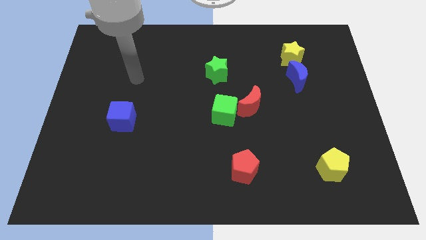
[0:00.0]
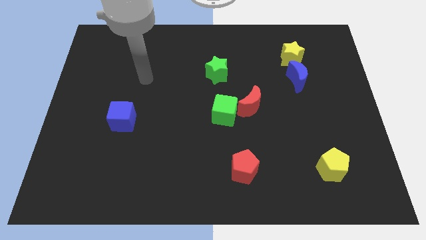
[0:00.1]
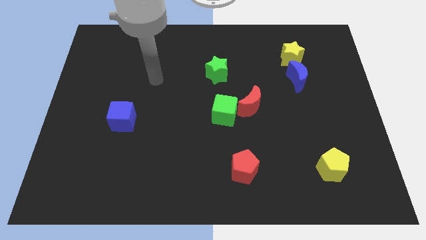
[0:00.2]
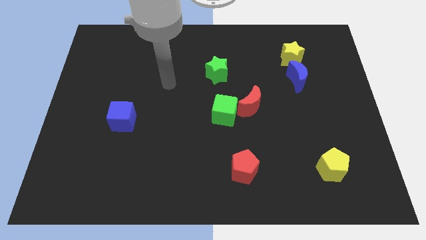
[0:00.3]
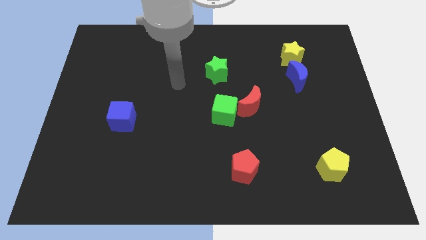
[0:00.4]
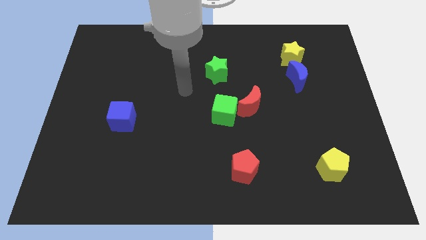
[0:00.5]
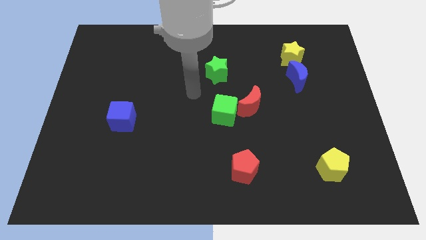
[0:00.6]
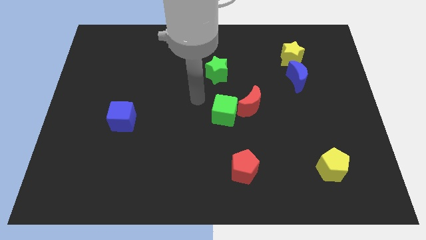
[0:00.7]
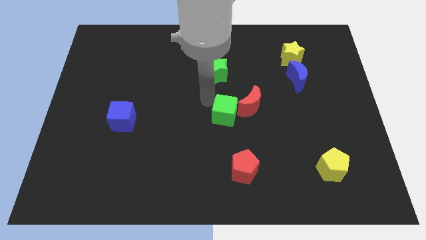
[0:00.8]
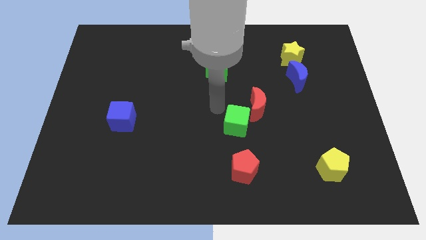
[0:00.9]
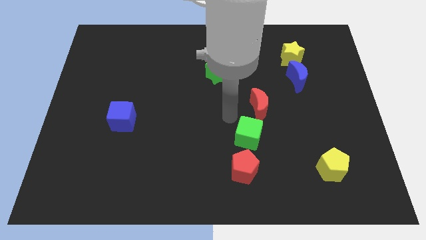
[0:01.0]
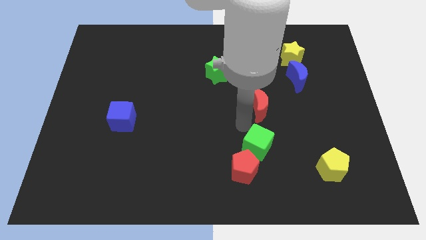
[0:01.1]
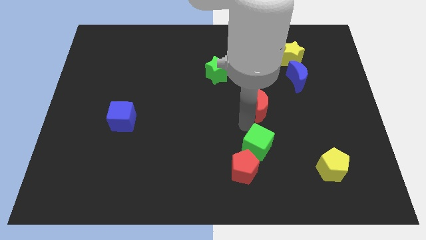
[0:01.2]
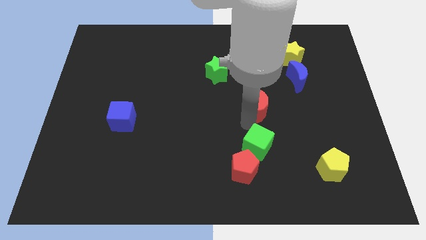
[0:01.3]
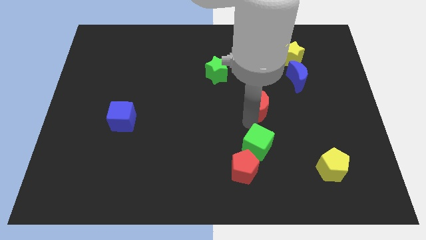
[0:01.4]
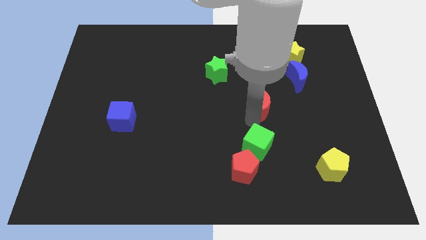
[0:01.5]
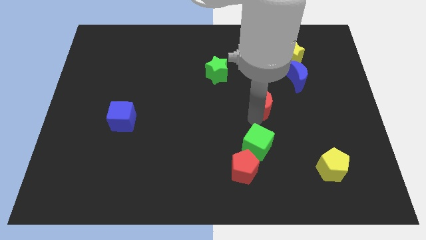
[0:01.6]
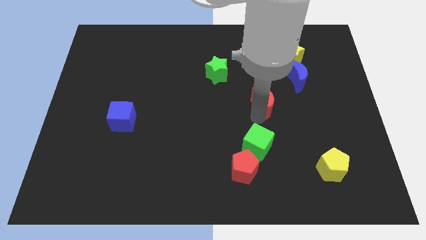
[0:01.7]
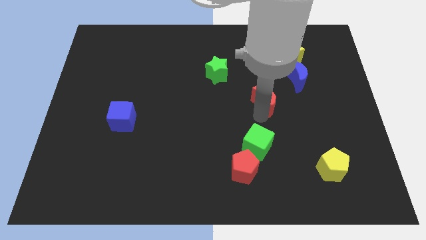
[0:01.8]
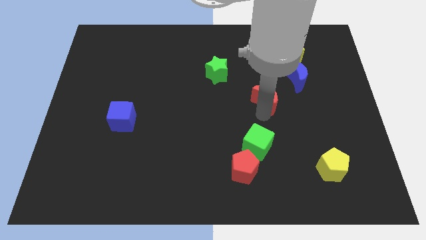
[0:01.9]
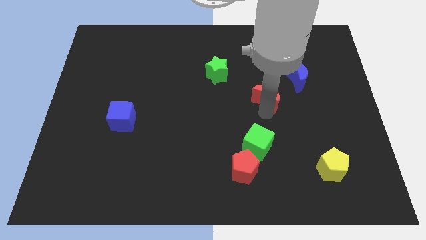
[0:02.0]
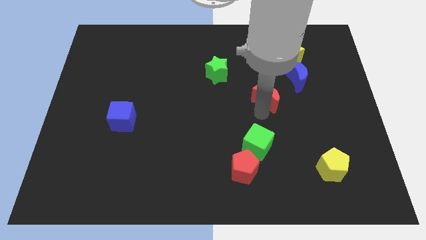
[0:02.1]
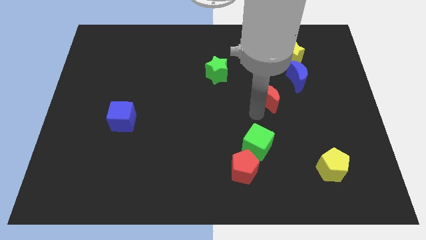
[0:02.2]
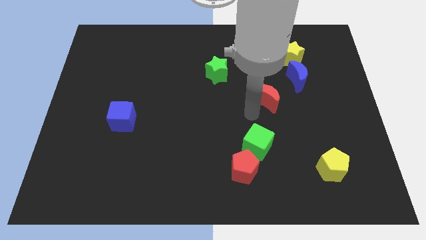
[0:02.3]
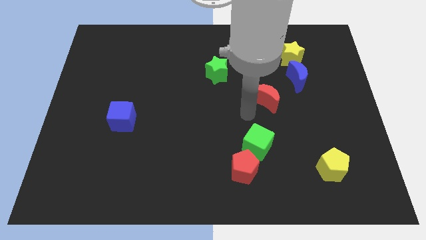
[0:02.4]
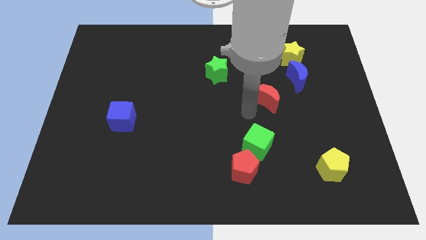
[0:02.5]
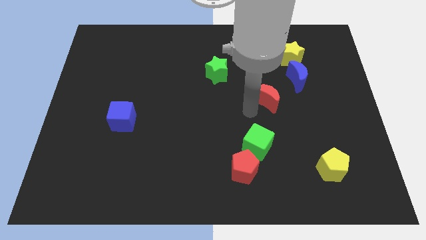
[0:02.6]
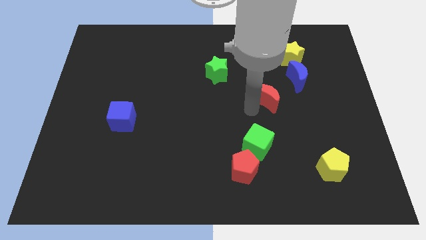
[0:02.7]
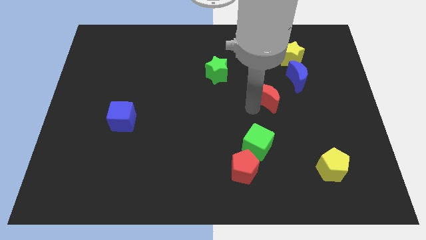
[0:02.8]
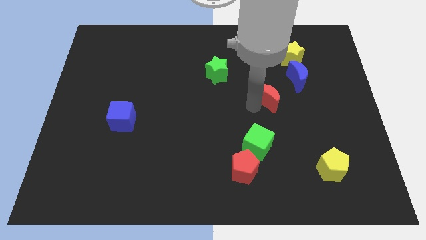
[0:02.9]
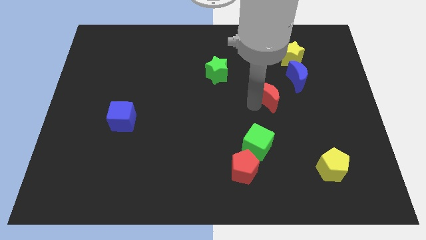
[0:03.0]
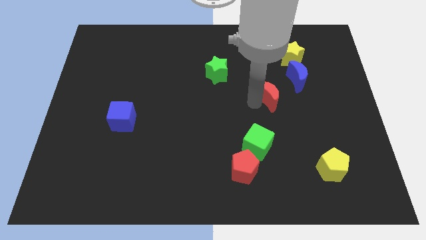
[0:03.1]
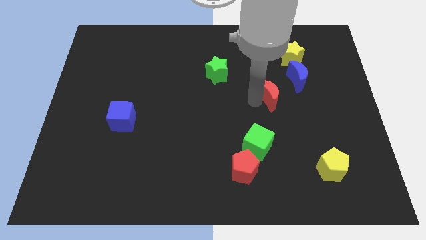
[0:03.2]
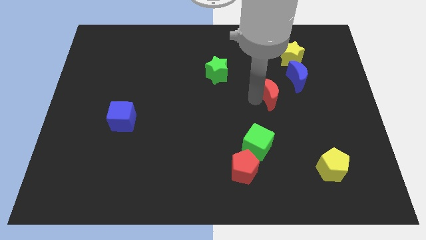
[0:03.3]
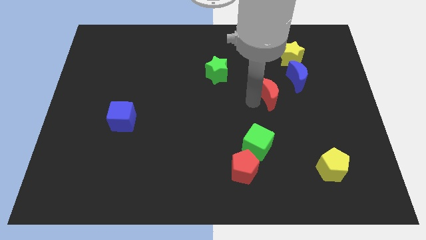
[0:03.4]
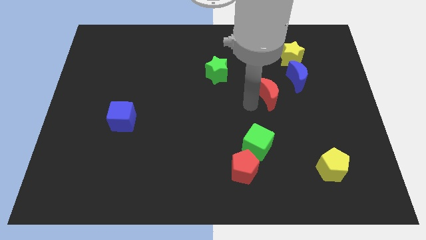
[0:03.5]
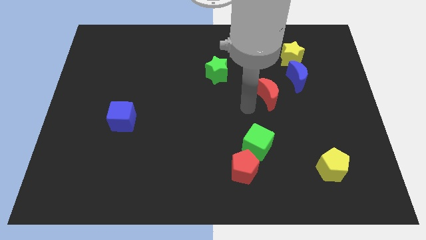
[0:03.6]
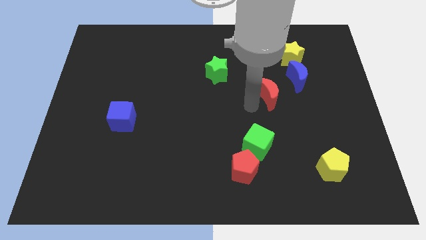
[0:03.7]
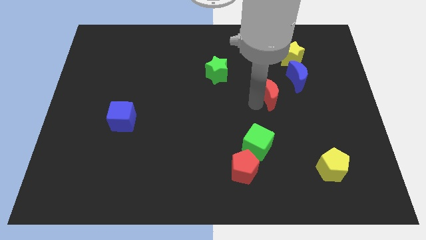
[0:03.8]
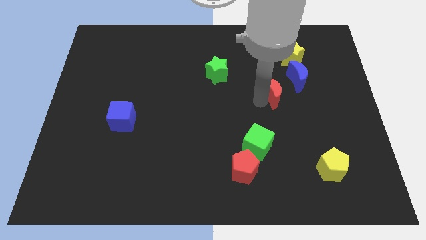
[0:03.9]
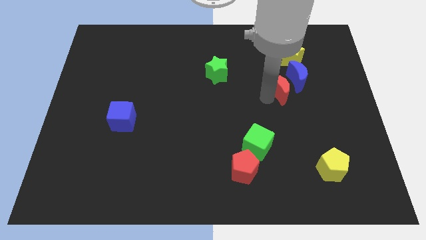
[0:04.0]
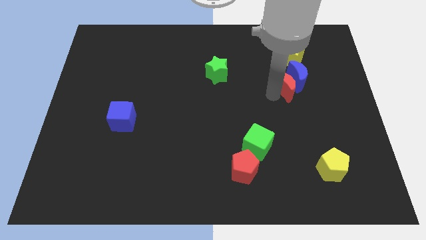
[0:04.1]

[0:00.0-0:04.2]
put the red moon close to the blue moon

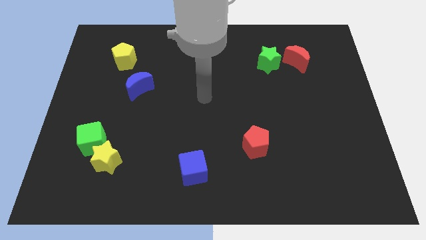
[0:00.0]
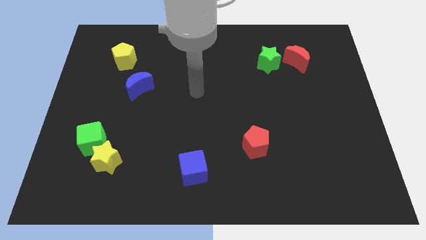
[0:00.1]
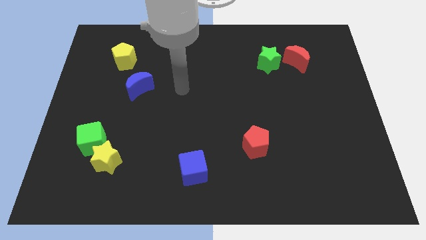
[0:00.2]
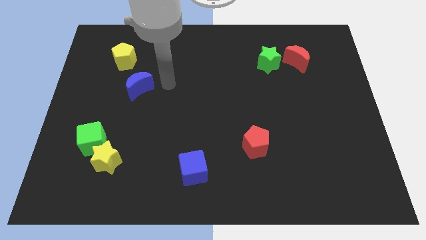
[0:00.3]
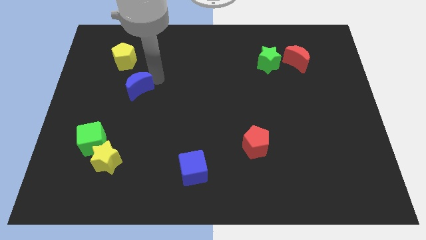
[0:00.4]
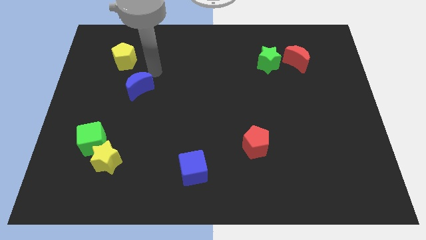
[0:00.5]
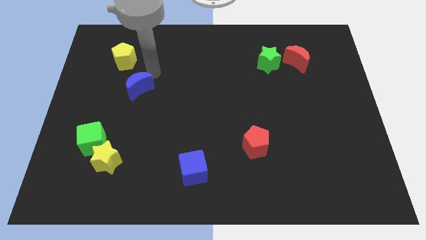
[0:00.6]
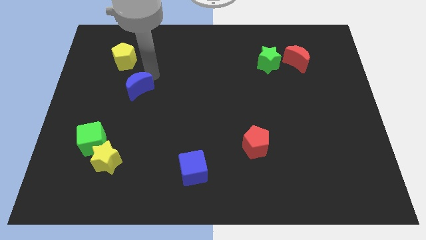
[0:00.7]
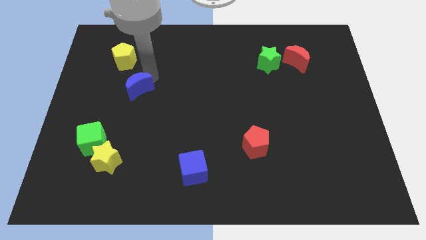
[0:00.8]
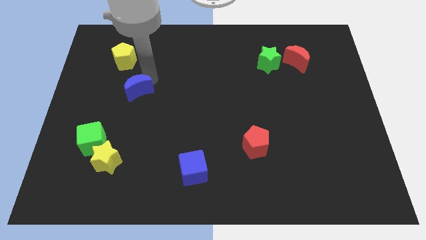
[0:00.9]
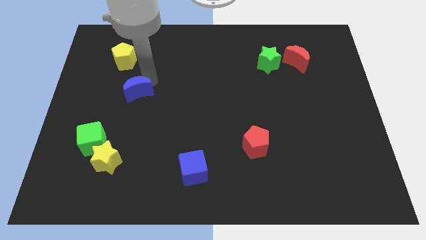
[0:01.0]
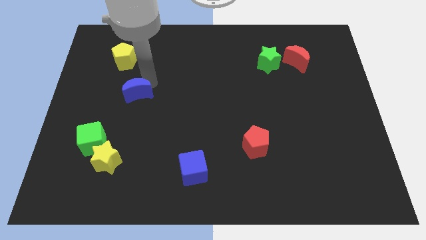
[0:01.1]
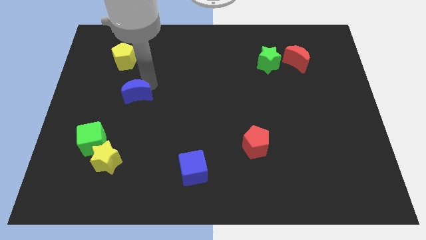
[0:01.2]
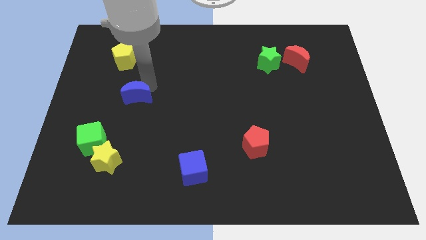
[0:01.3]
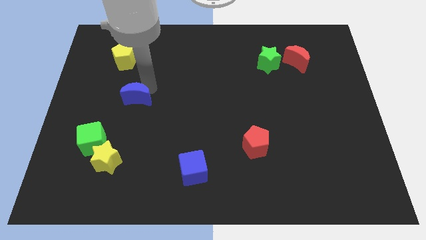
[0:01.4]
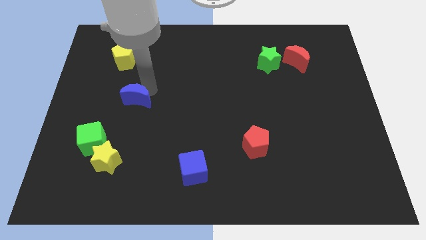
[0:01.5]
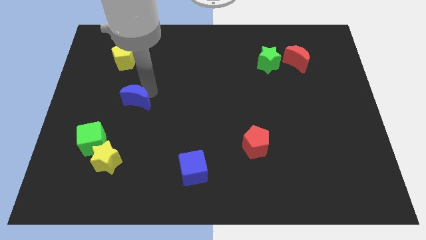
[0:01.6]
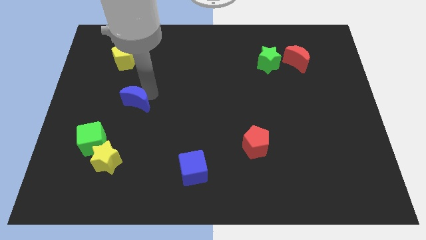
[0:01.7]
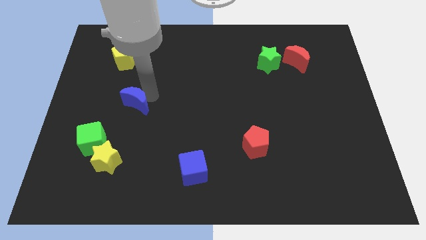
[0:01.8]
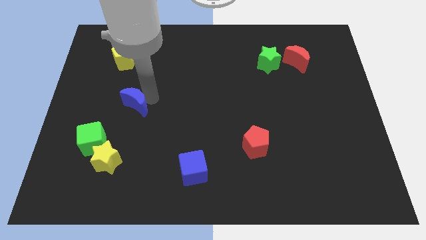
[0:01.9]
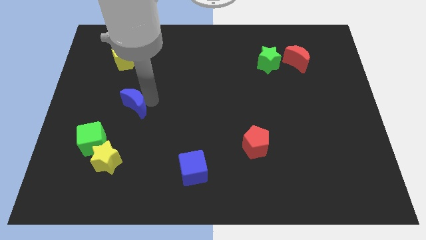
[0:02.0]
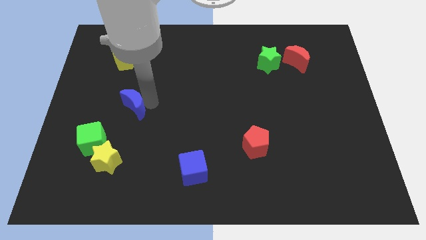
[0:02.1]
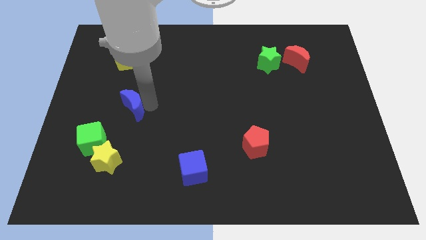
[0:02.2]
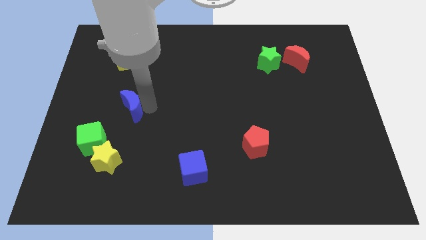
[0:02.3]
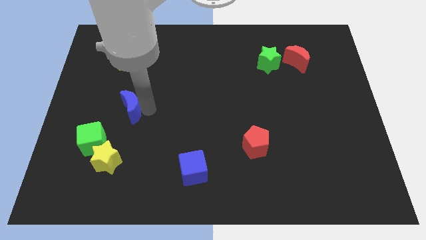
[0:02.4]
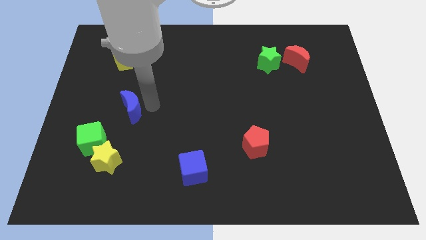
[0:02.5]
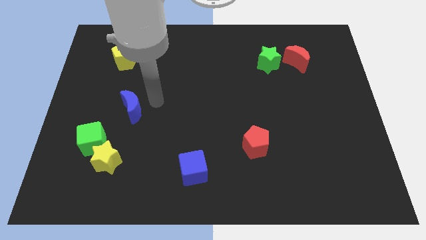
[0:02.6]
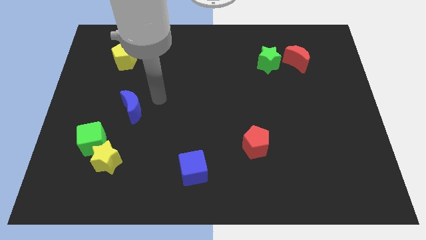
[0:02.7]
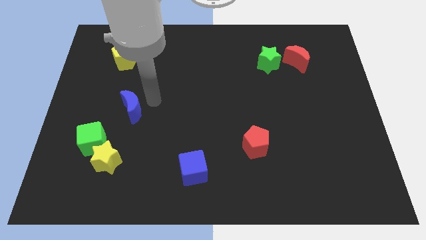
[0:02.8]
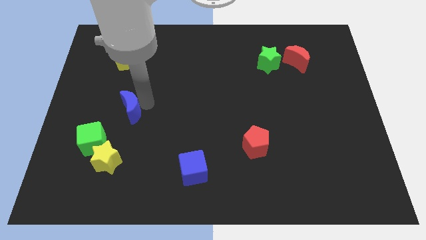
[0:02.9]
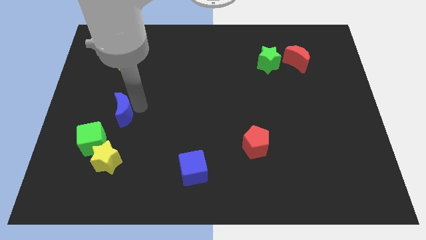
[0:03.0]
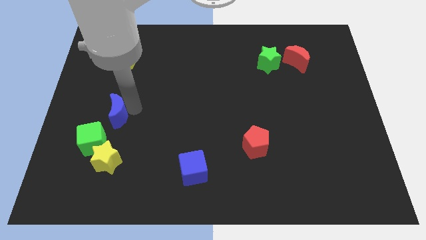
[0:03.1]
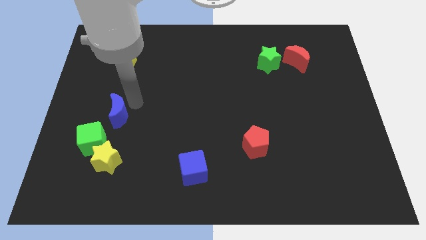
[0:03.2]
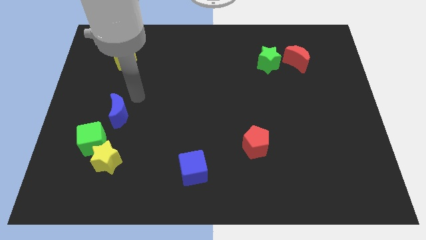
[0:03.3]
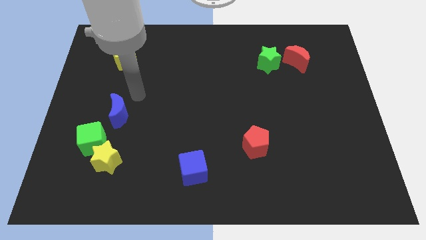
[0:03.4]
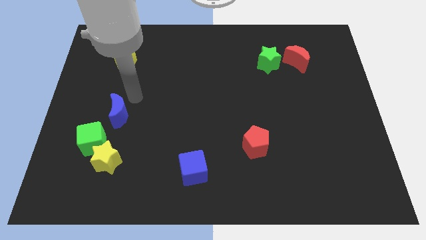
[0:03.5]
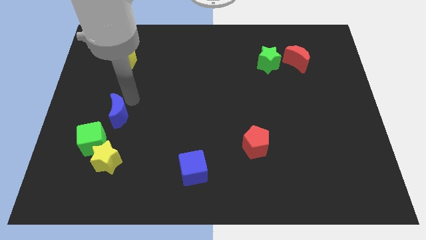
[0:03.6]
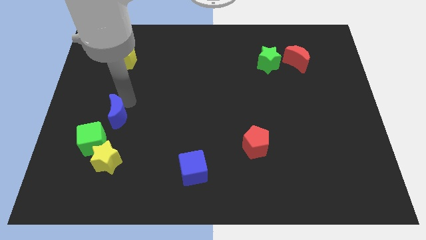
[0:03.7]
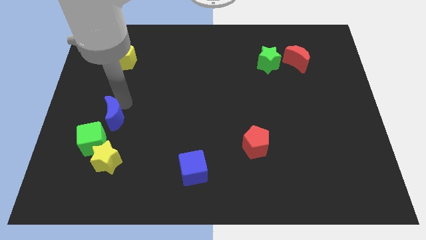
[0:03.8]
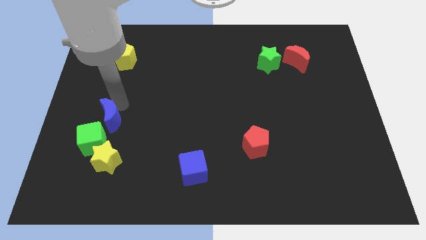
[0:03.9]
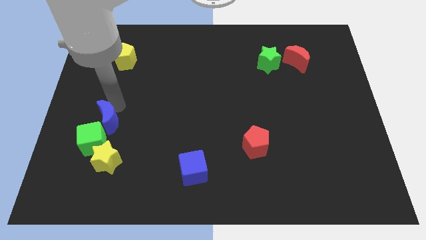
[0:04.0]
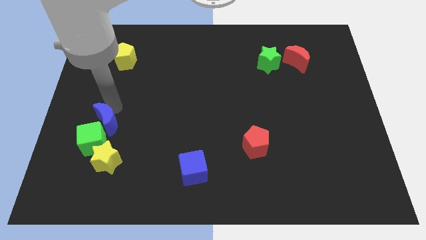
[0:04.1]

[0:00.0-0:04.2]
put the blue moon to the green cube
